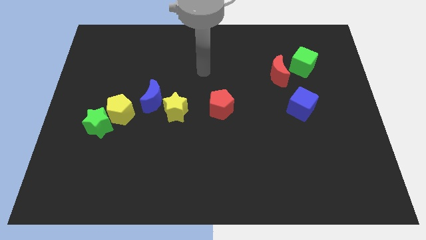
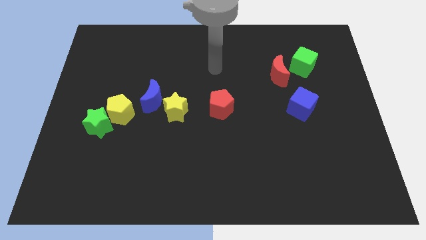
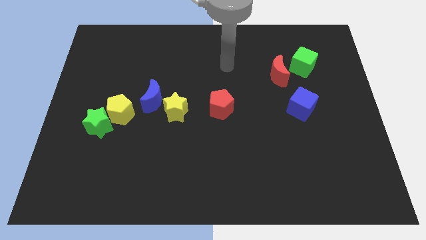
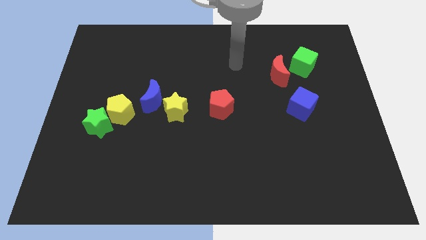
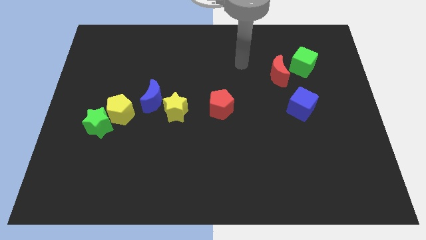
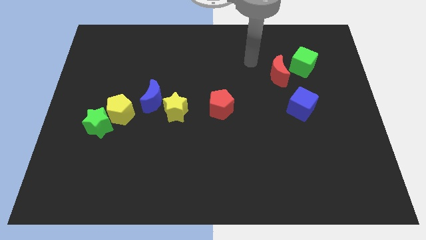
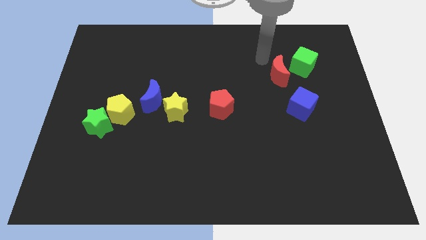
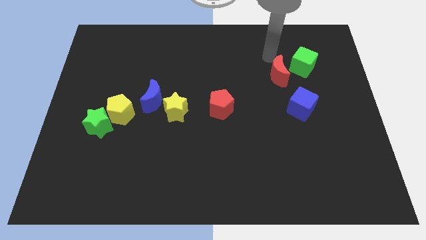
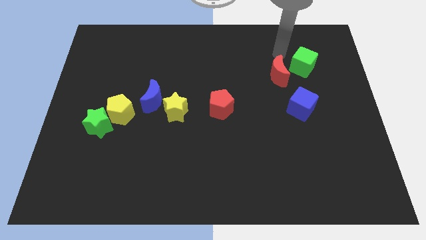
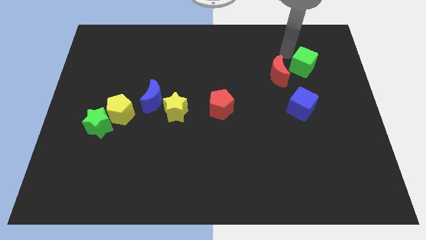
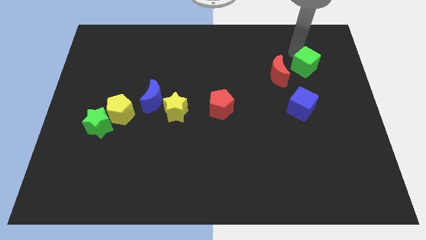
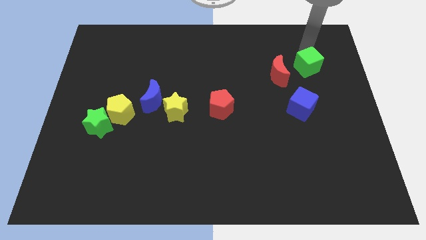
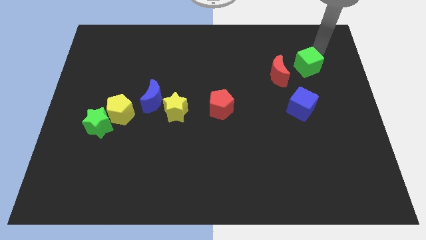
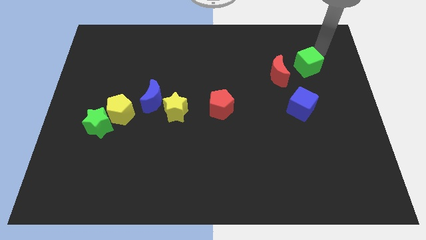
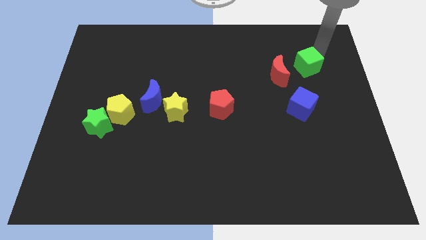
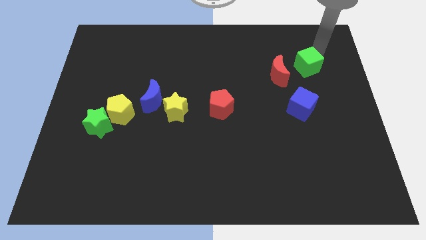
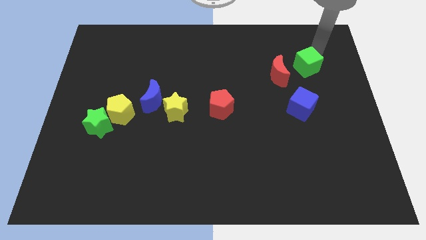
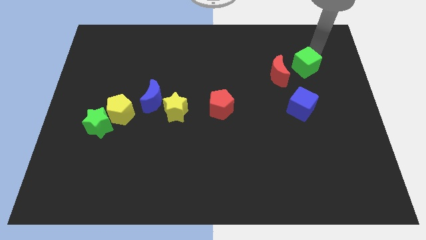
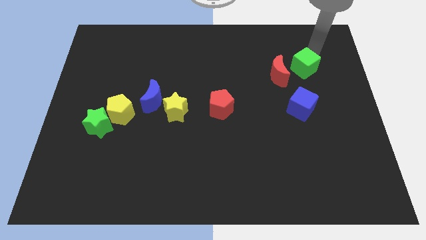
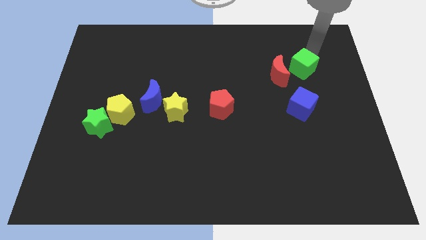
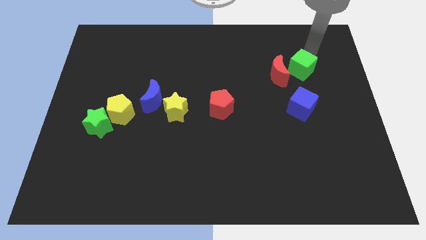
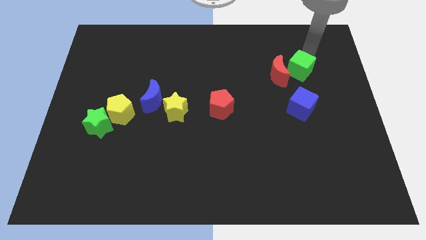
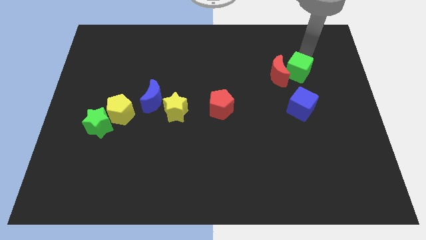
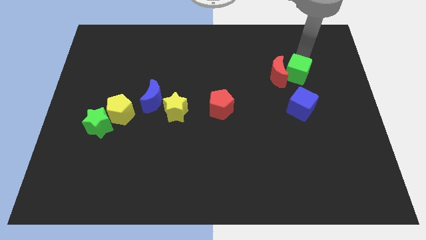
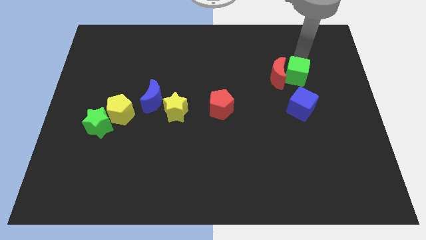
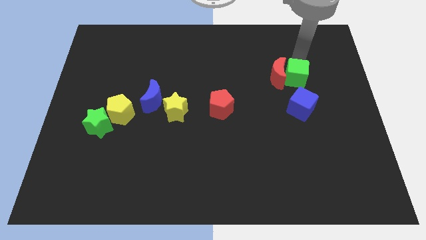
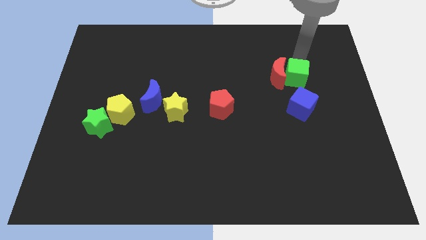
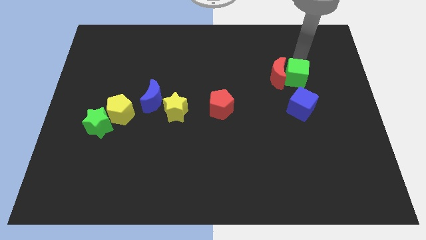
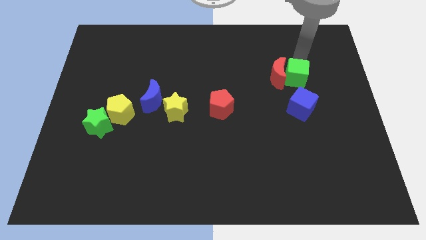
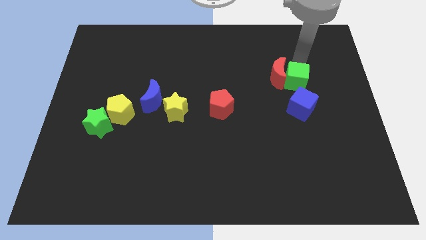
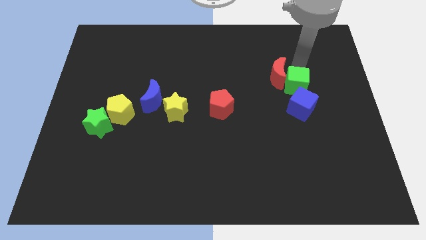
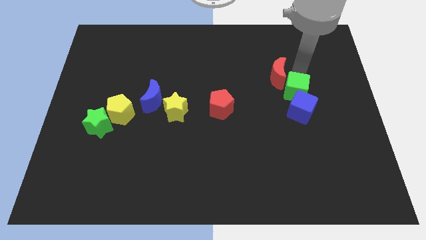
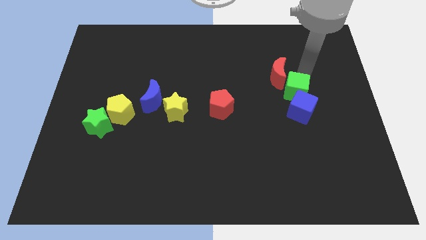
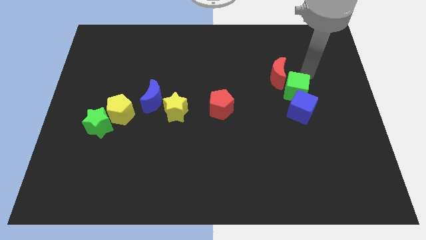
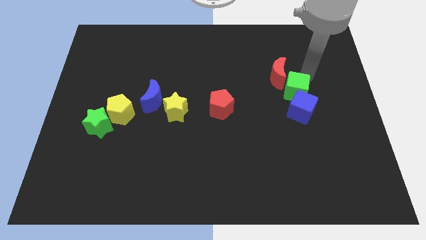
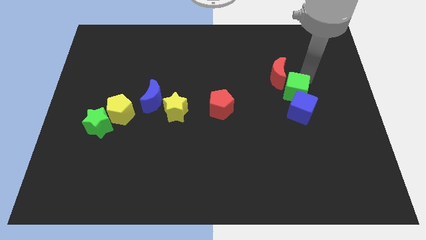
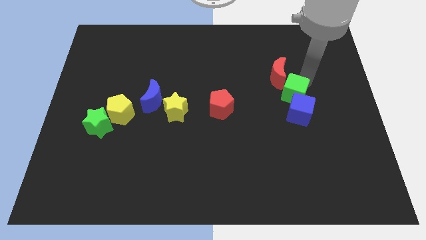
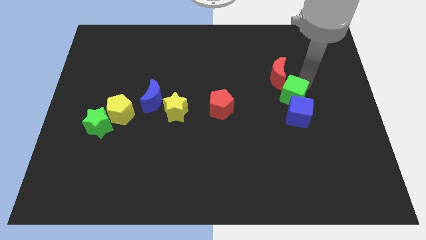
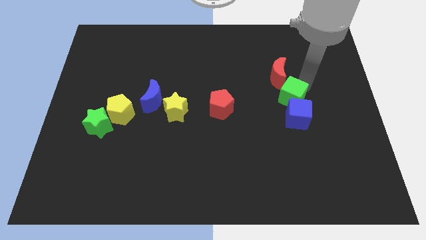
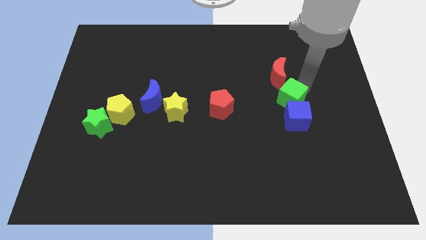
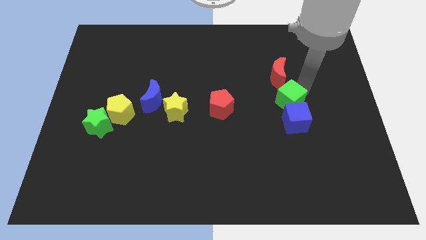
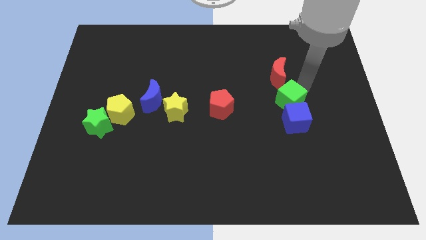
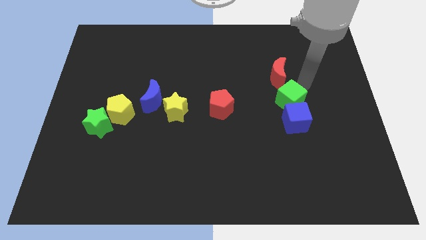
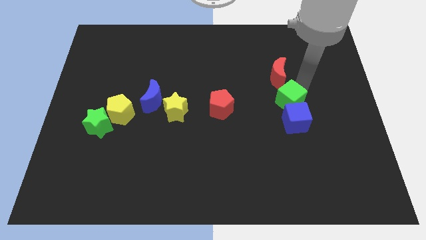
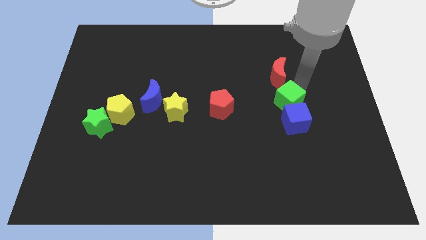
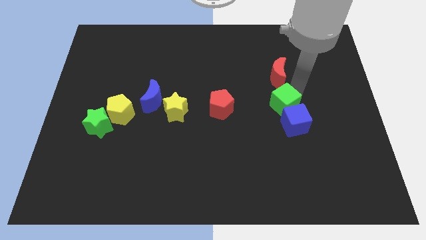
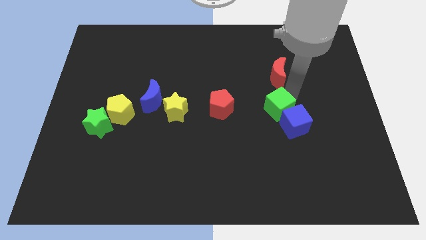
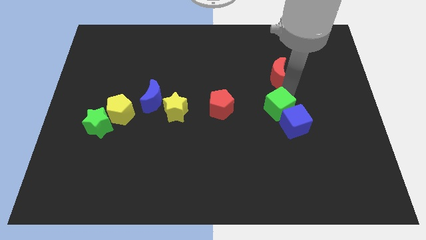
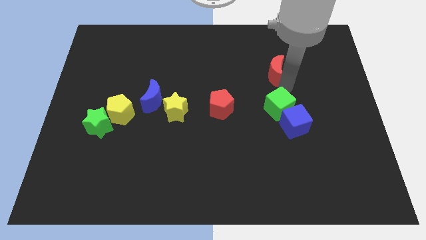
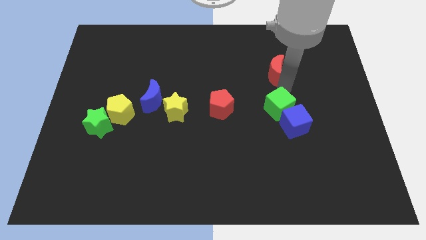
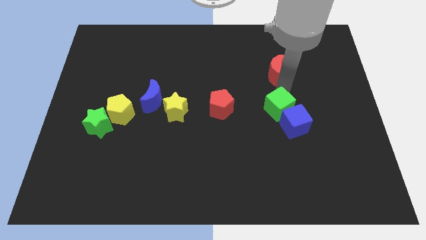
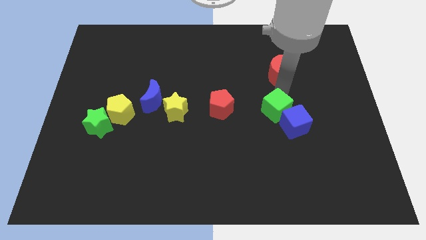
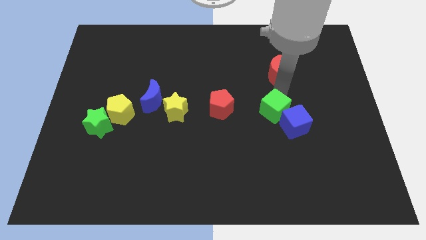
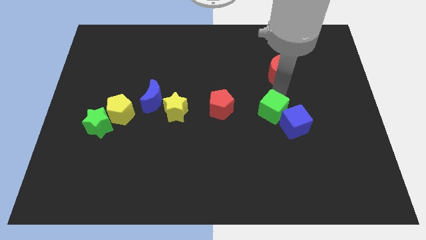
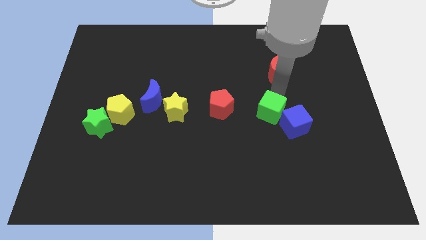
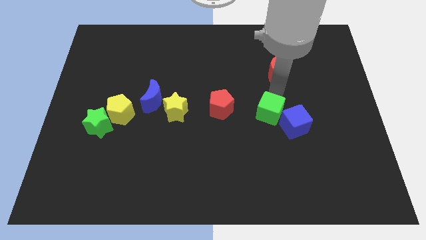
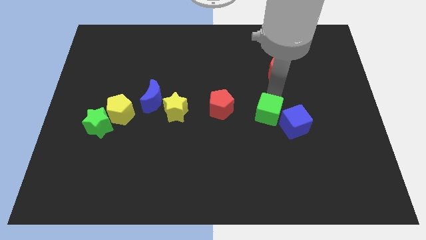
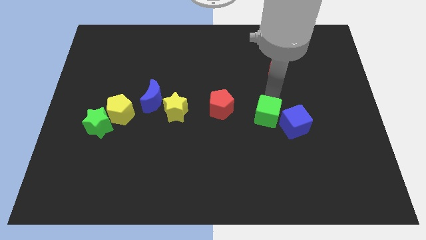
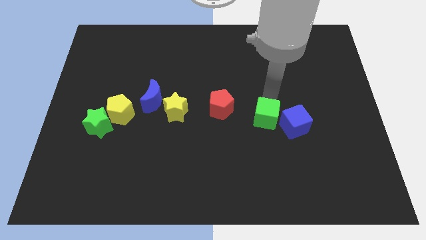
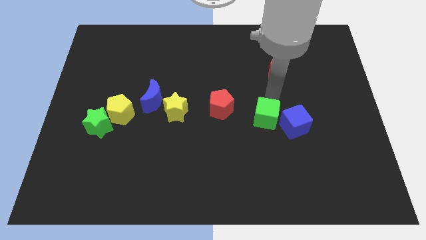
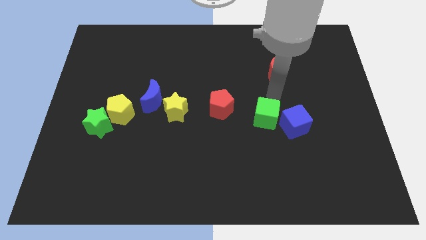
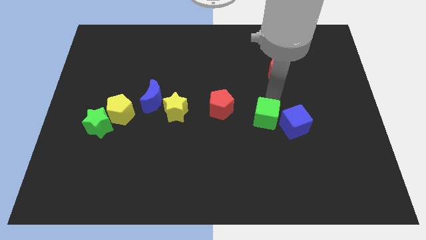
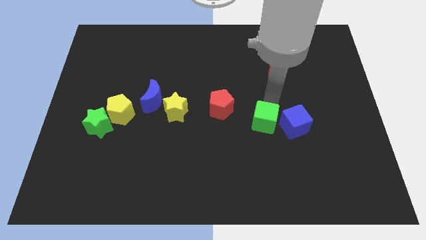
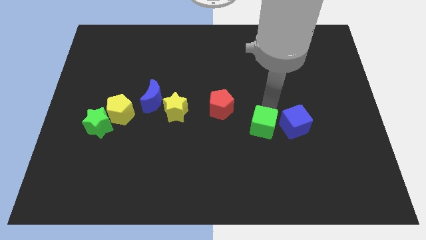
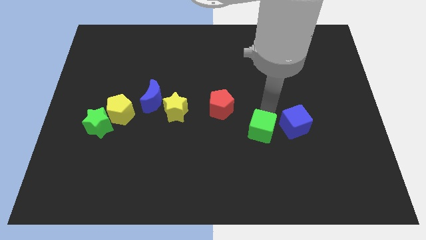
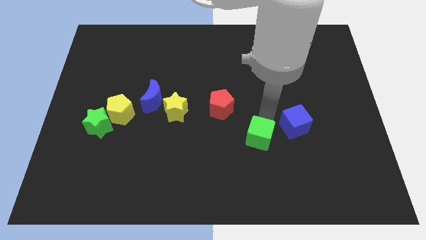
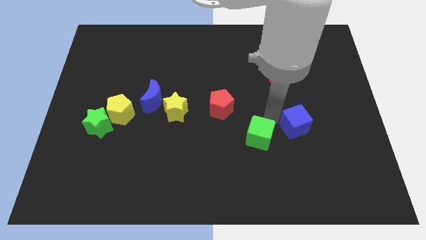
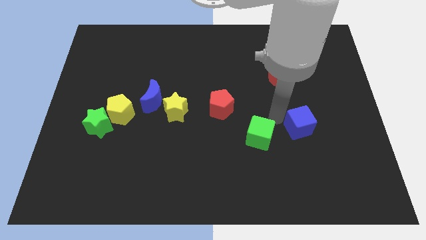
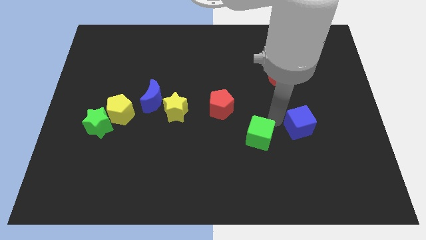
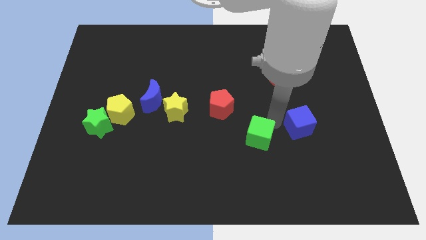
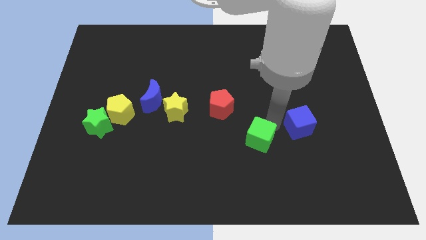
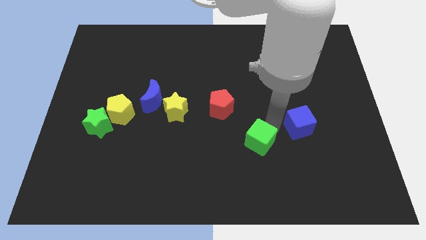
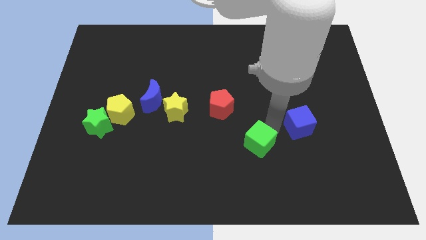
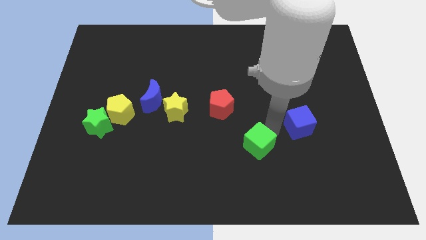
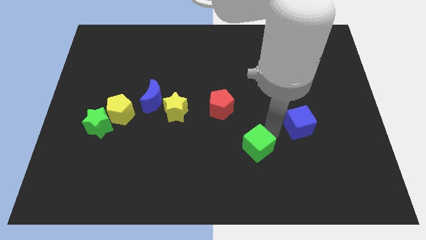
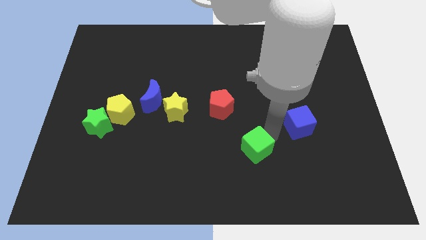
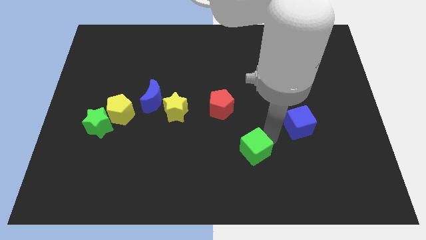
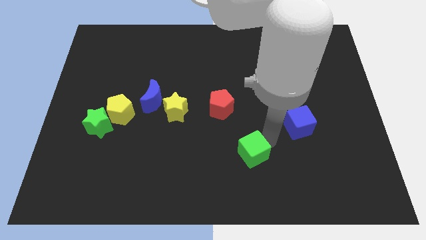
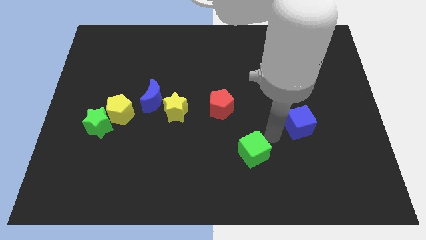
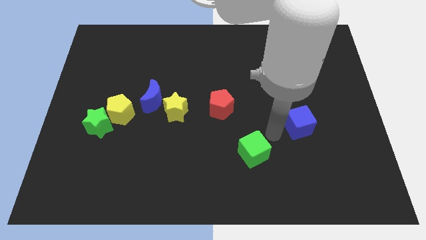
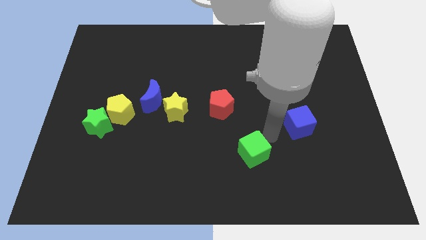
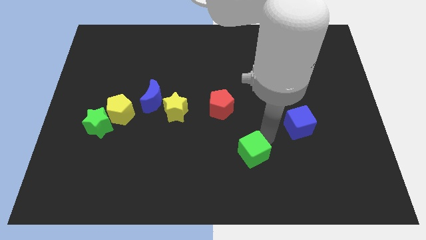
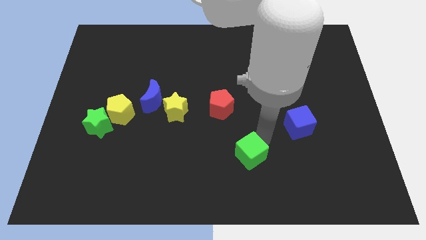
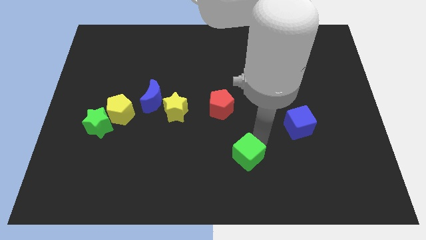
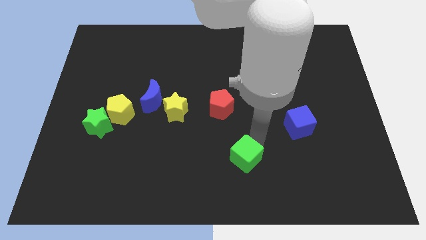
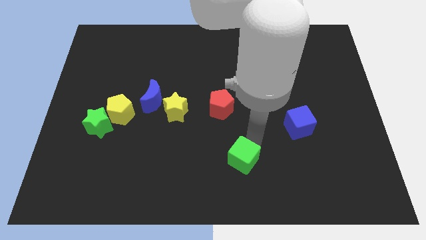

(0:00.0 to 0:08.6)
move the green cube to the bottom side
